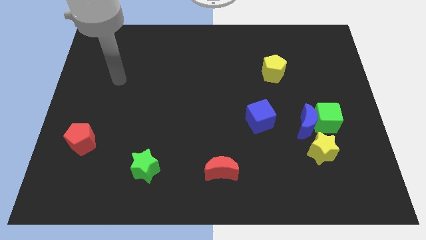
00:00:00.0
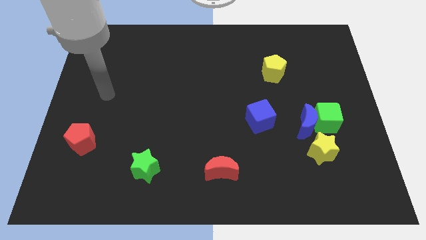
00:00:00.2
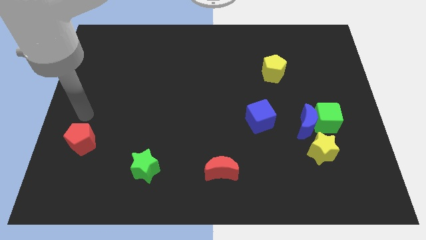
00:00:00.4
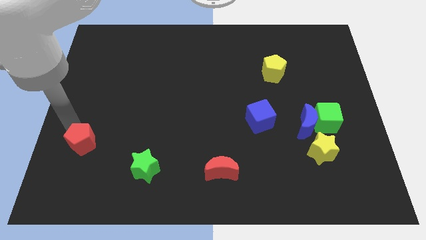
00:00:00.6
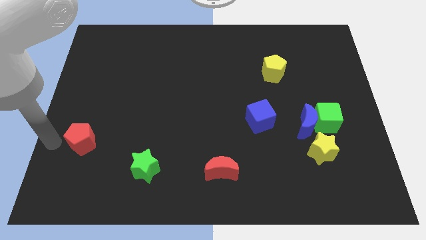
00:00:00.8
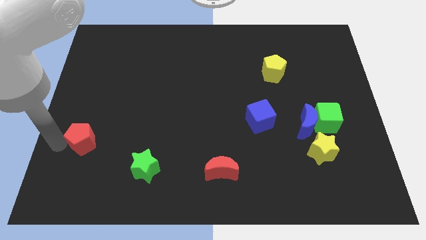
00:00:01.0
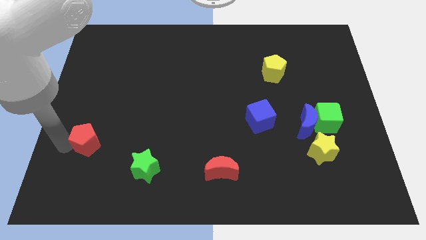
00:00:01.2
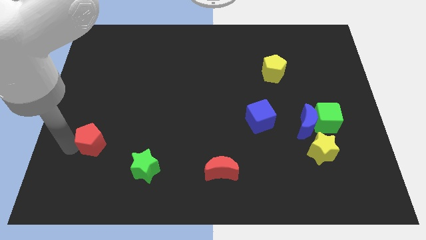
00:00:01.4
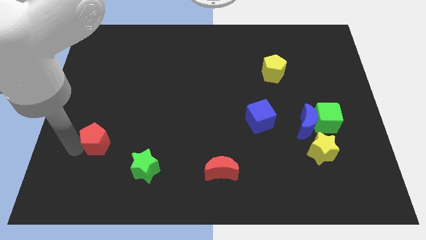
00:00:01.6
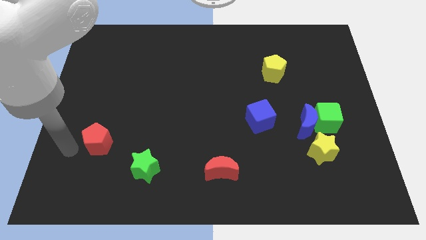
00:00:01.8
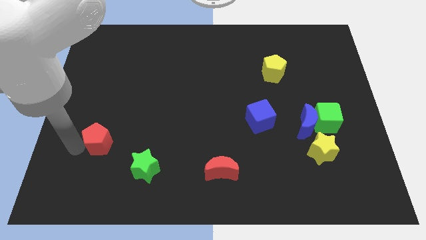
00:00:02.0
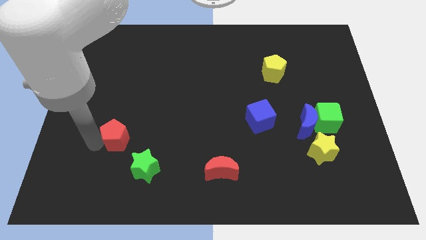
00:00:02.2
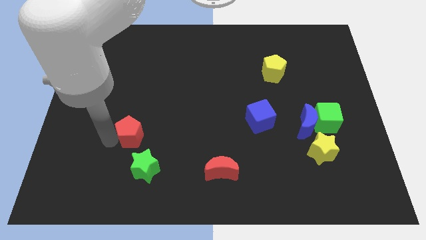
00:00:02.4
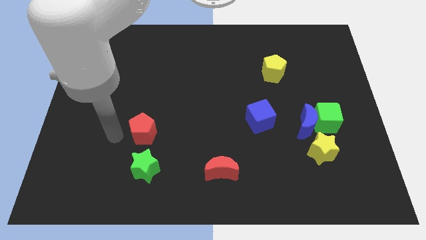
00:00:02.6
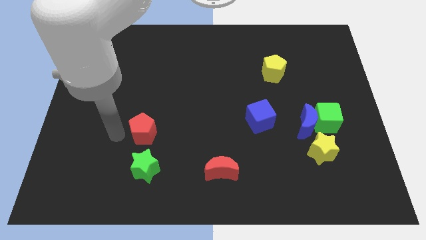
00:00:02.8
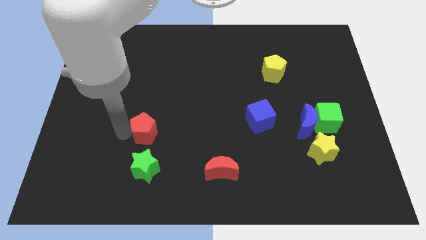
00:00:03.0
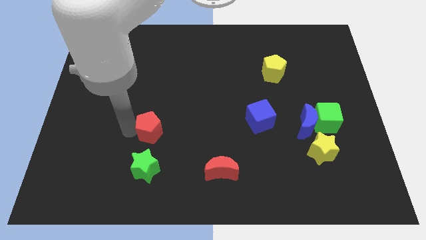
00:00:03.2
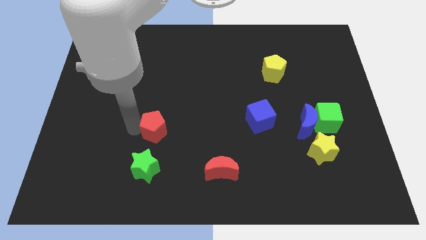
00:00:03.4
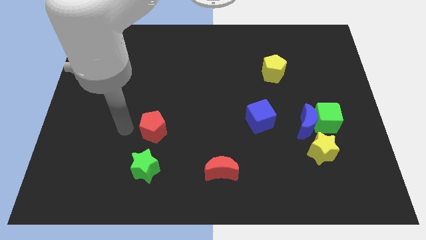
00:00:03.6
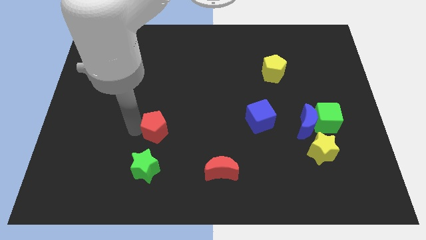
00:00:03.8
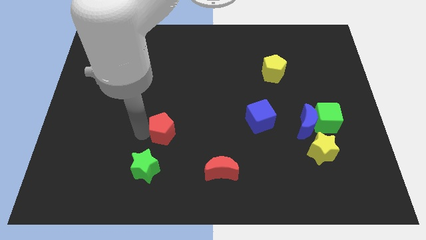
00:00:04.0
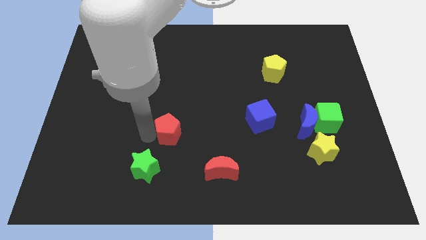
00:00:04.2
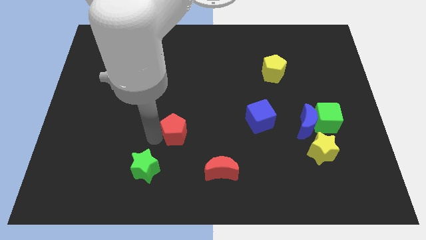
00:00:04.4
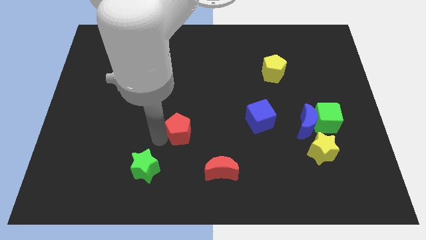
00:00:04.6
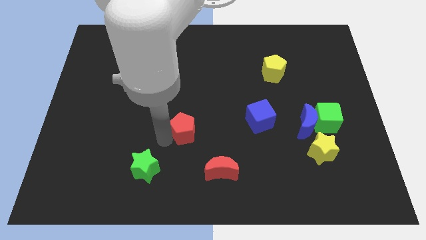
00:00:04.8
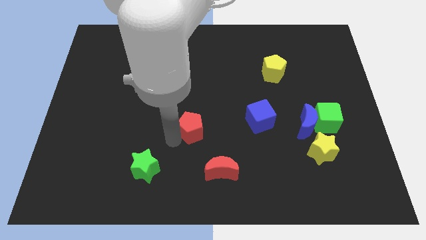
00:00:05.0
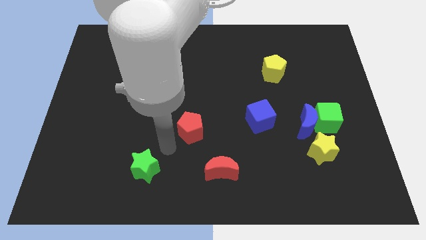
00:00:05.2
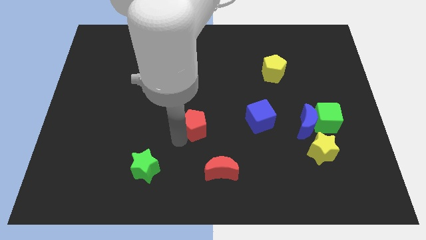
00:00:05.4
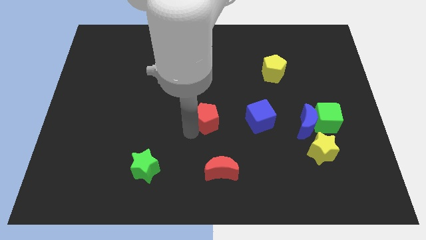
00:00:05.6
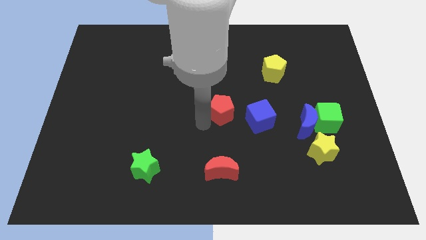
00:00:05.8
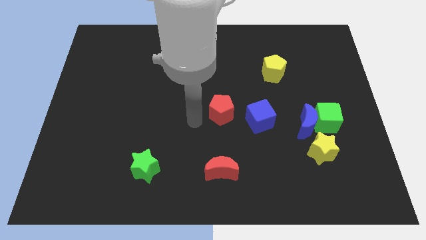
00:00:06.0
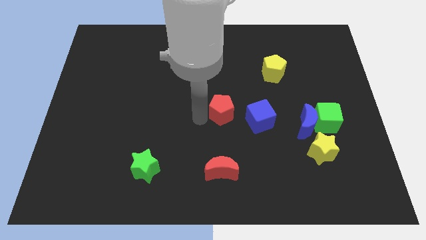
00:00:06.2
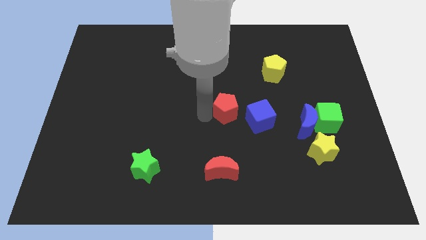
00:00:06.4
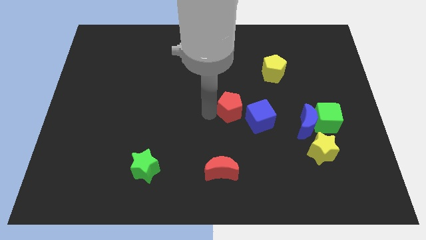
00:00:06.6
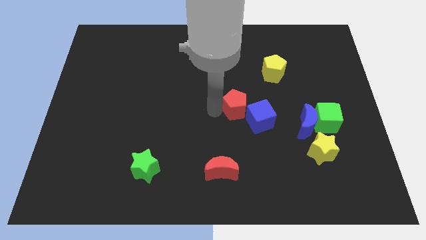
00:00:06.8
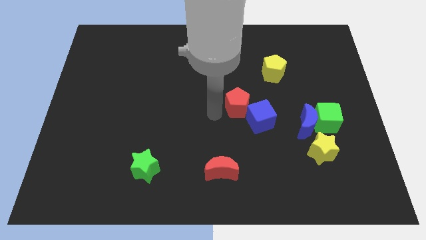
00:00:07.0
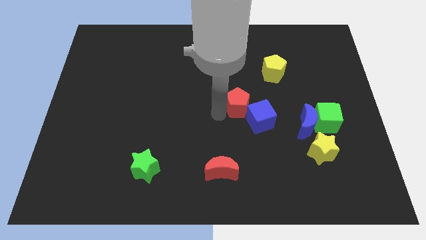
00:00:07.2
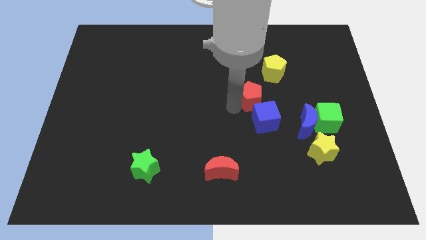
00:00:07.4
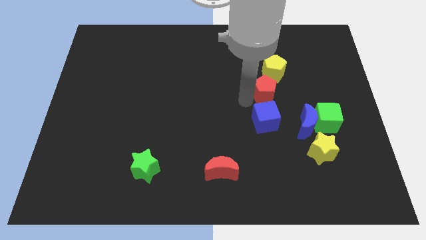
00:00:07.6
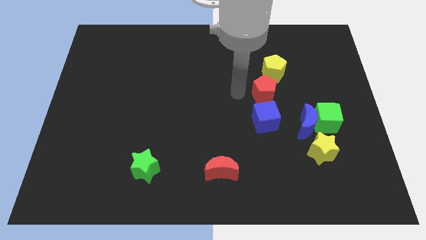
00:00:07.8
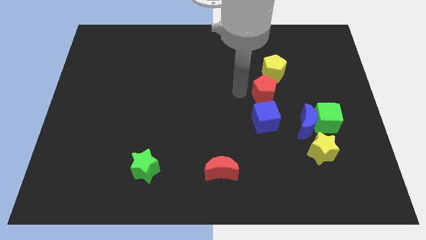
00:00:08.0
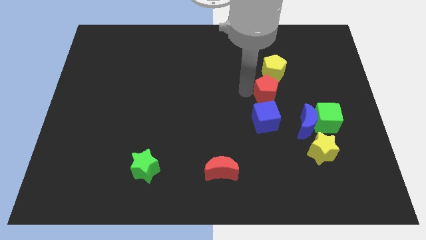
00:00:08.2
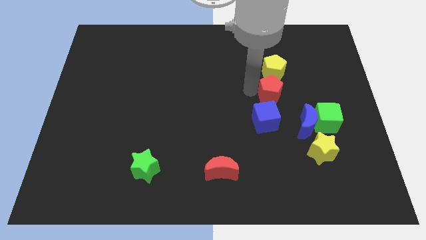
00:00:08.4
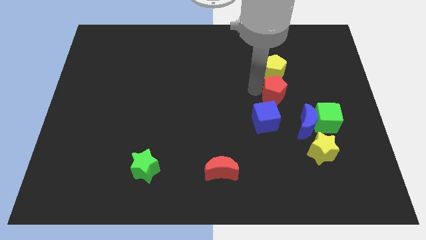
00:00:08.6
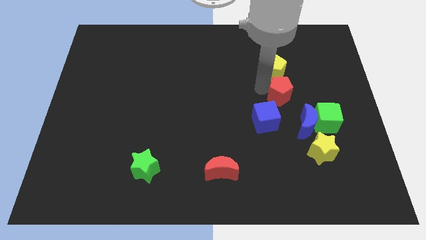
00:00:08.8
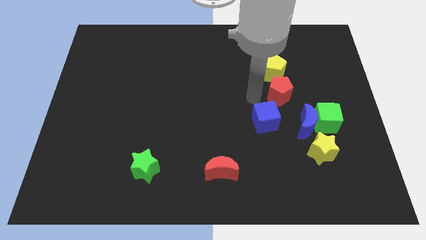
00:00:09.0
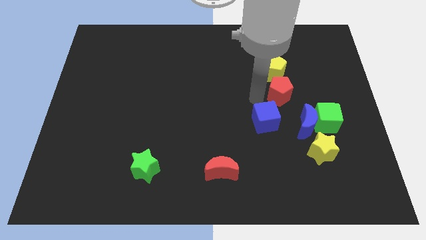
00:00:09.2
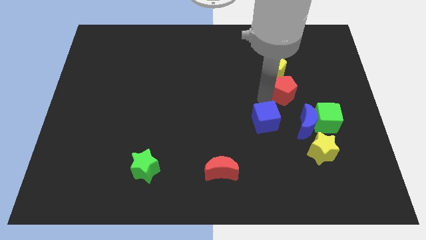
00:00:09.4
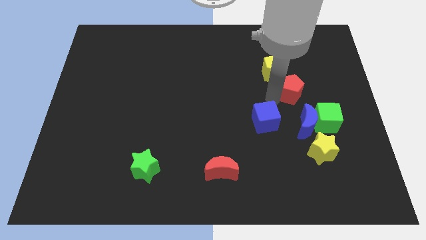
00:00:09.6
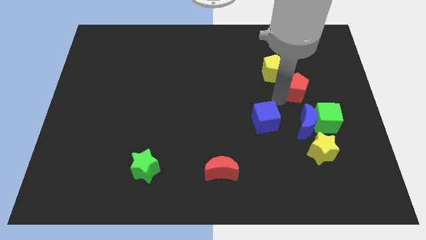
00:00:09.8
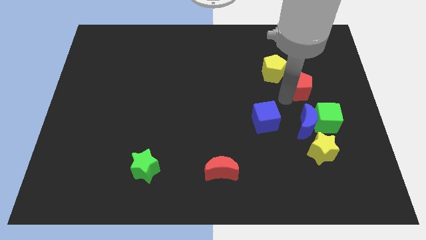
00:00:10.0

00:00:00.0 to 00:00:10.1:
put the red pentagon to the top side of the green cube

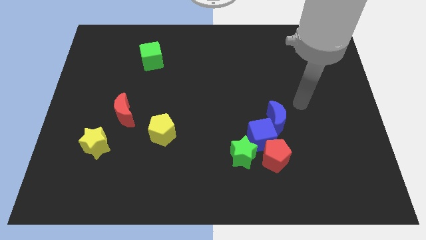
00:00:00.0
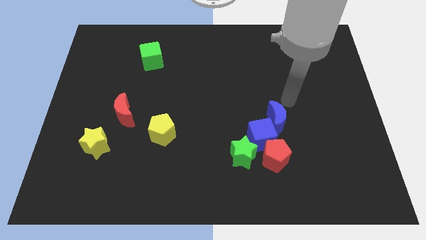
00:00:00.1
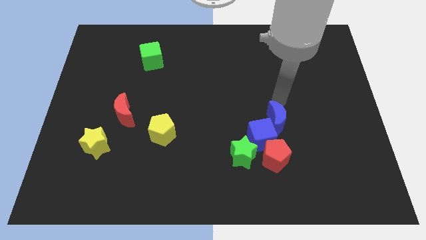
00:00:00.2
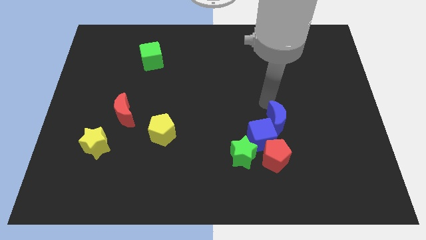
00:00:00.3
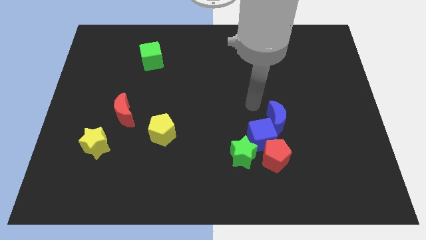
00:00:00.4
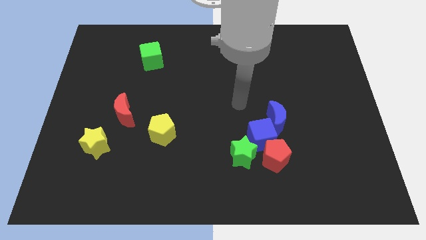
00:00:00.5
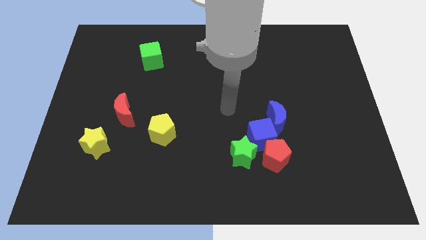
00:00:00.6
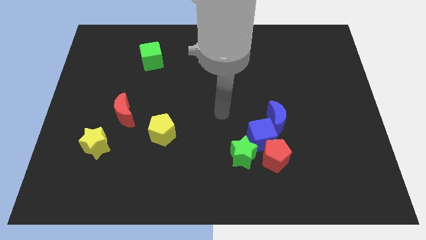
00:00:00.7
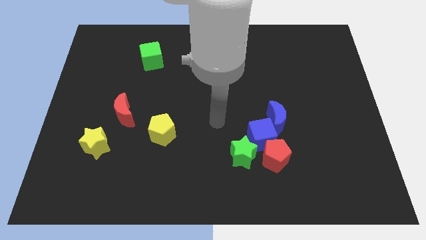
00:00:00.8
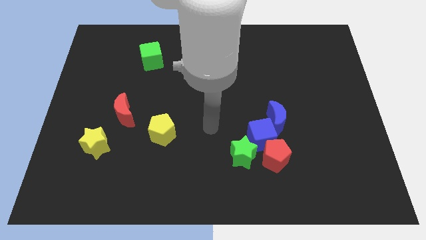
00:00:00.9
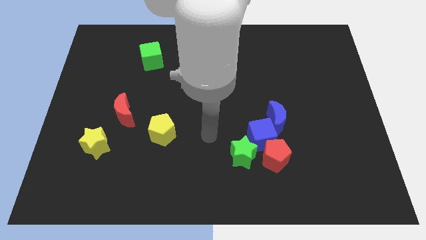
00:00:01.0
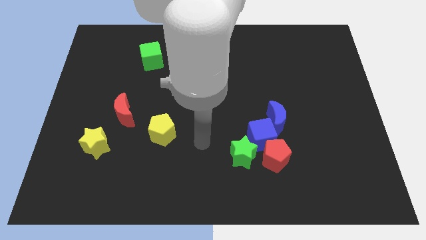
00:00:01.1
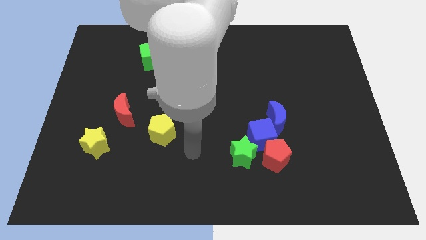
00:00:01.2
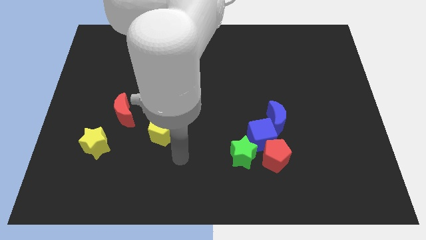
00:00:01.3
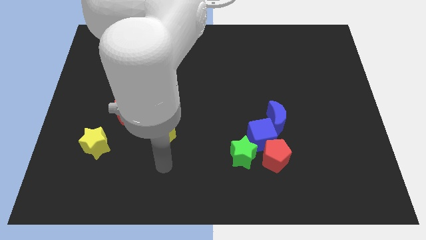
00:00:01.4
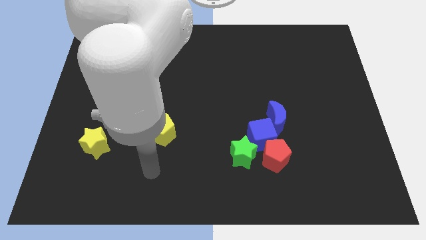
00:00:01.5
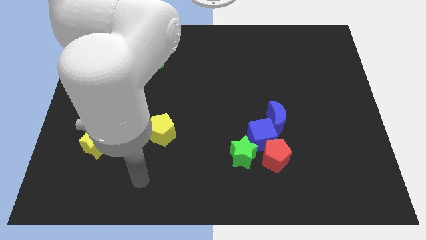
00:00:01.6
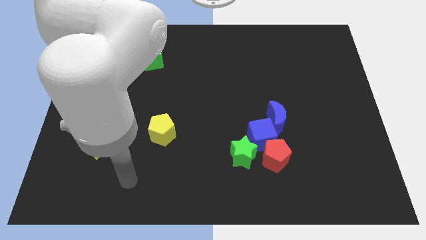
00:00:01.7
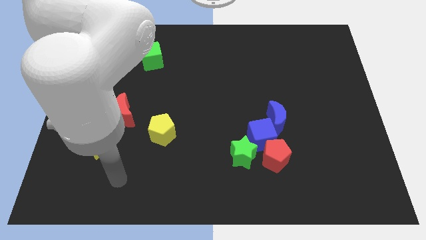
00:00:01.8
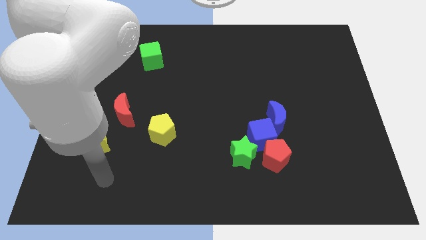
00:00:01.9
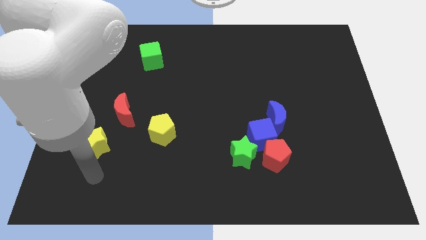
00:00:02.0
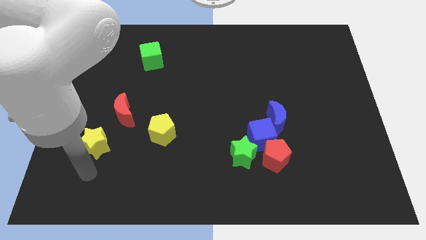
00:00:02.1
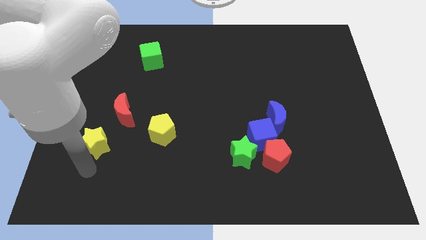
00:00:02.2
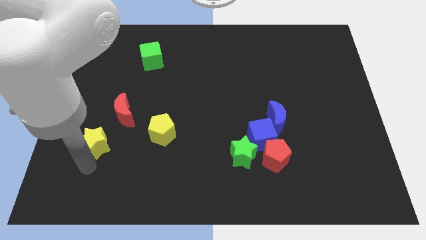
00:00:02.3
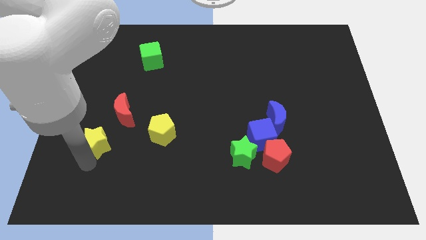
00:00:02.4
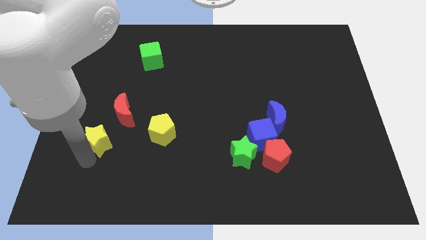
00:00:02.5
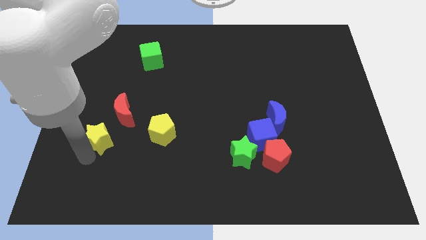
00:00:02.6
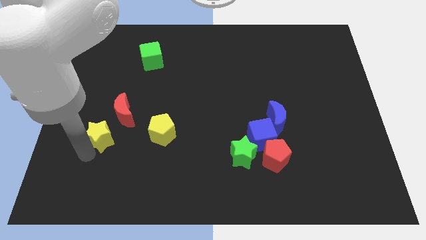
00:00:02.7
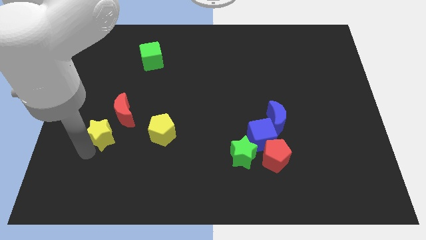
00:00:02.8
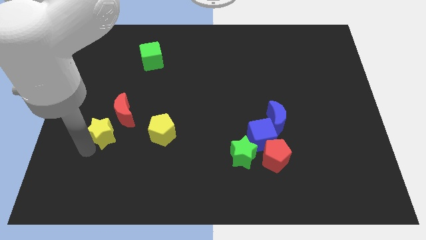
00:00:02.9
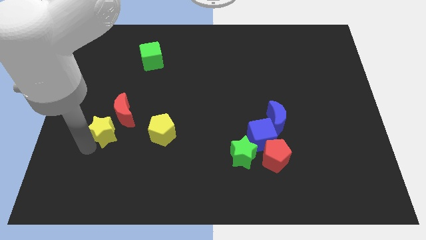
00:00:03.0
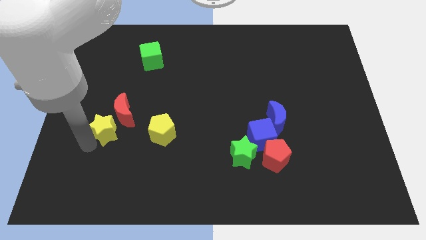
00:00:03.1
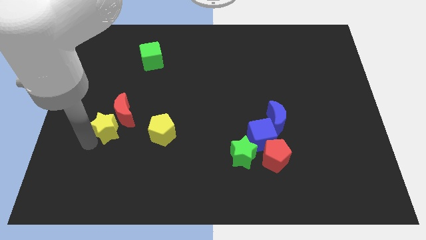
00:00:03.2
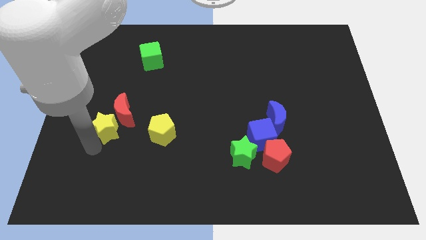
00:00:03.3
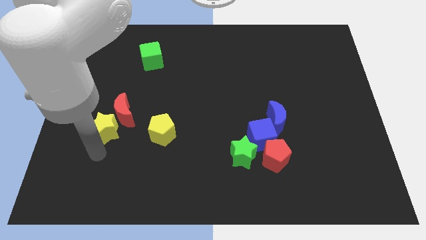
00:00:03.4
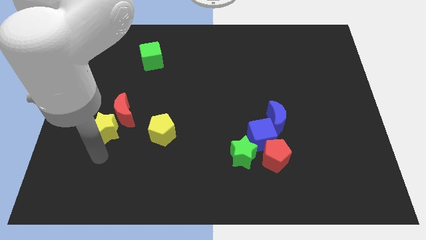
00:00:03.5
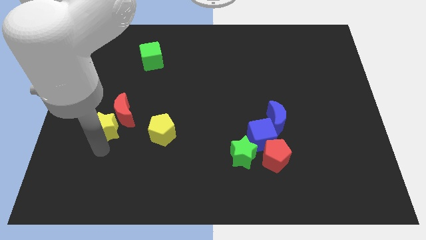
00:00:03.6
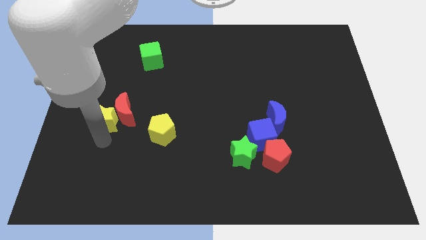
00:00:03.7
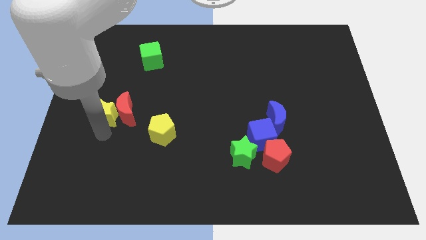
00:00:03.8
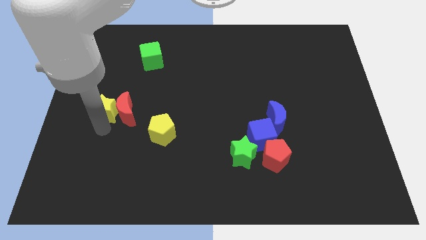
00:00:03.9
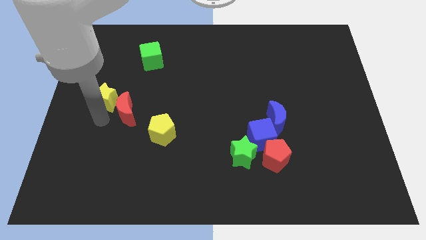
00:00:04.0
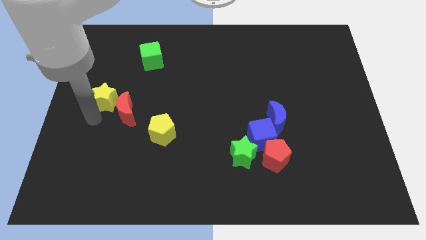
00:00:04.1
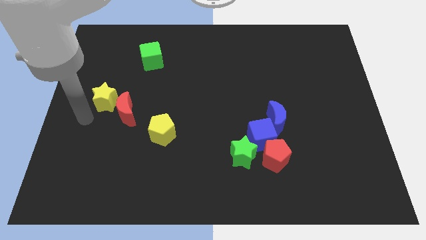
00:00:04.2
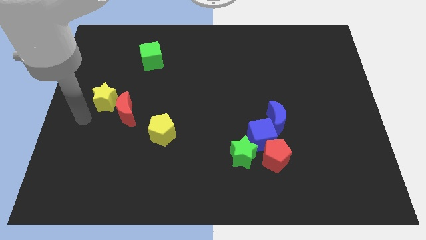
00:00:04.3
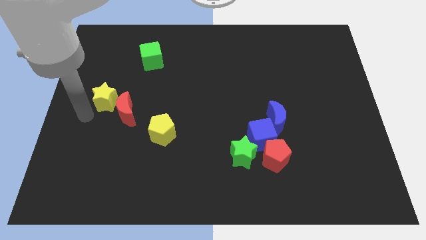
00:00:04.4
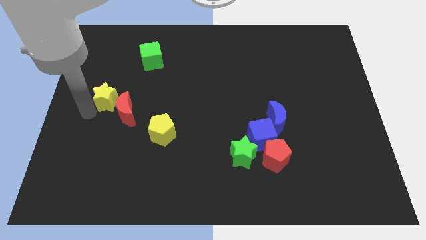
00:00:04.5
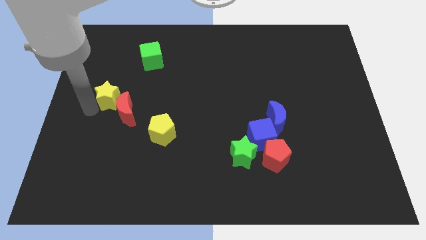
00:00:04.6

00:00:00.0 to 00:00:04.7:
put the yellow star above the red moon
